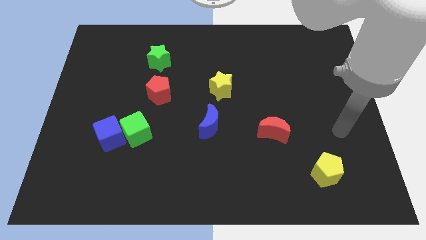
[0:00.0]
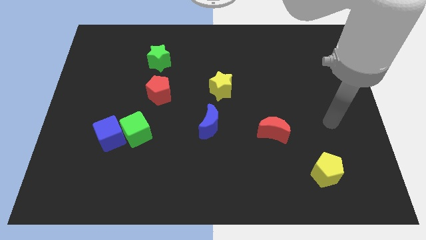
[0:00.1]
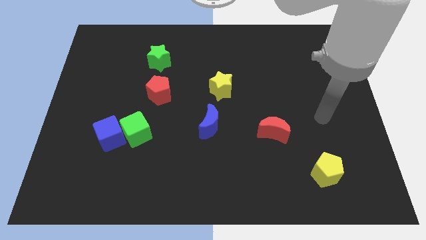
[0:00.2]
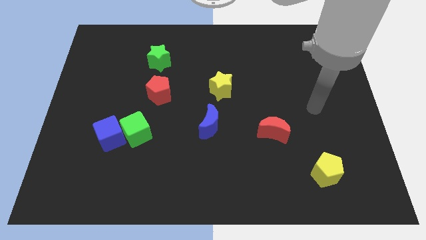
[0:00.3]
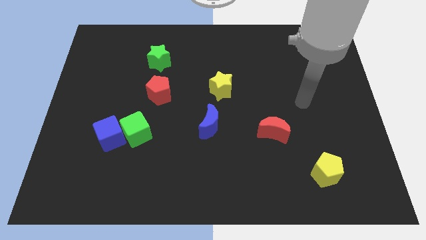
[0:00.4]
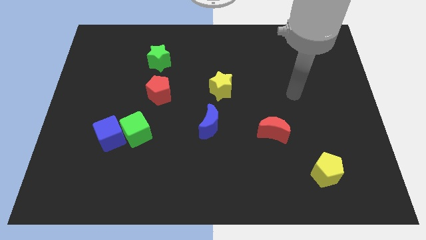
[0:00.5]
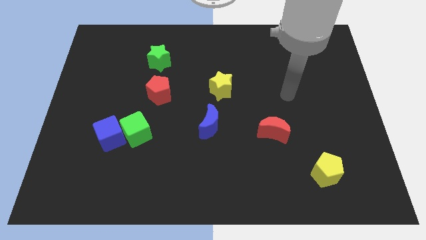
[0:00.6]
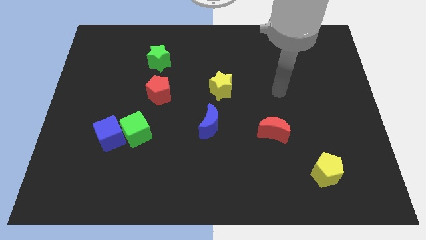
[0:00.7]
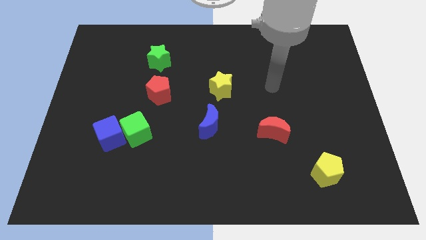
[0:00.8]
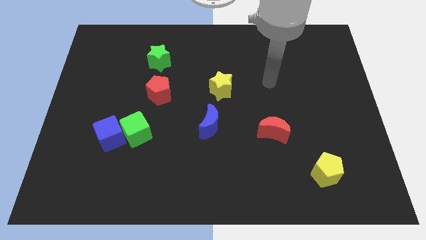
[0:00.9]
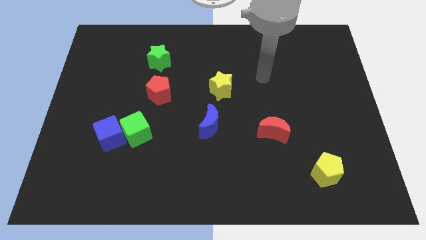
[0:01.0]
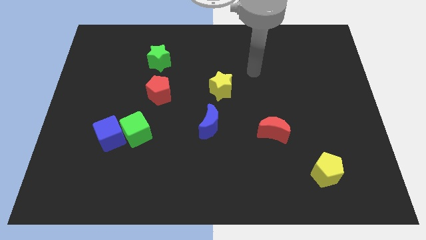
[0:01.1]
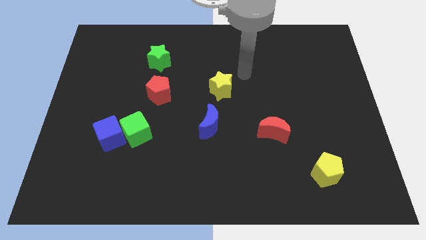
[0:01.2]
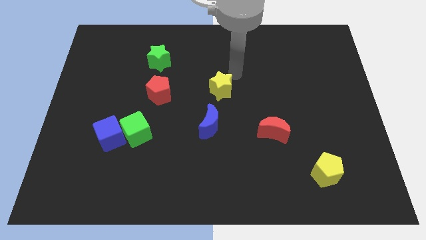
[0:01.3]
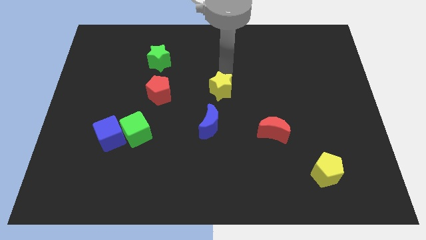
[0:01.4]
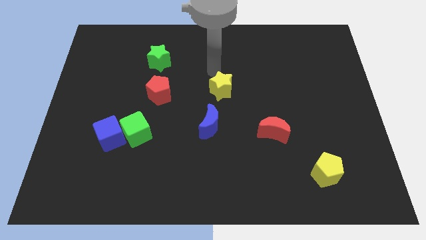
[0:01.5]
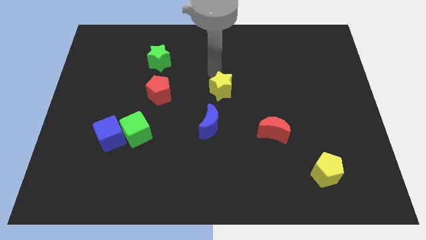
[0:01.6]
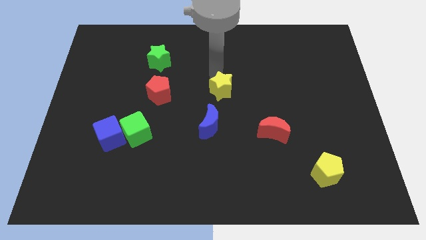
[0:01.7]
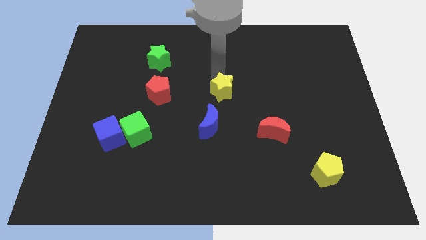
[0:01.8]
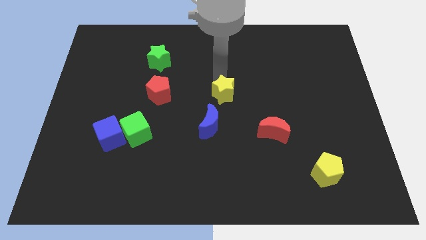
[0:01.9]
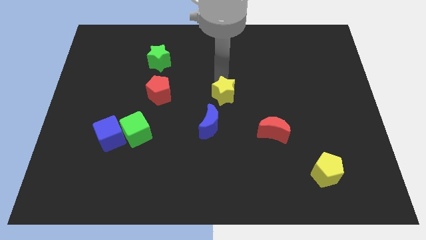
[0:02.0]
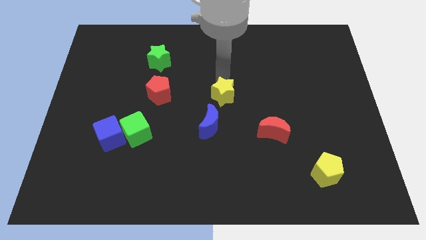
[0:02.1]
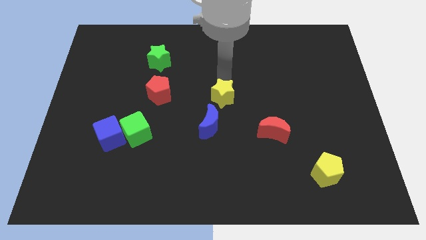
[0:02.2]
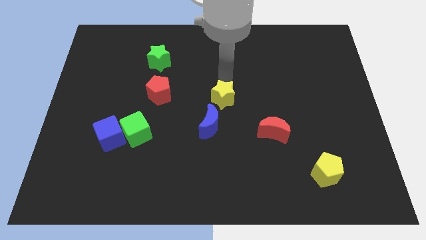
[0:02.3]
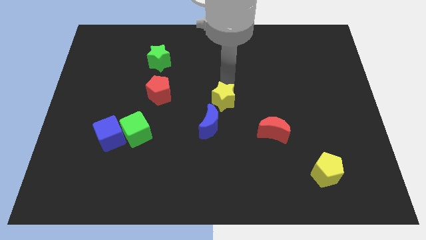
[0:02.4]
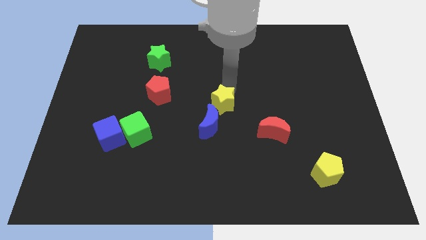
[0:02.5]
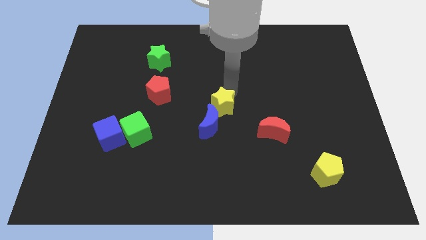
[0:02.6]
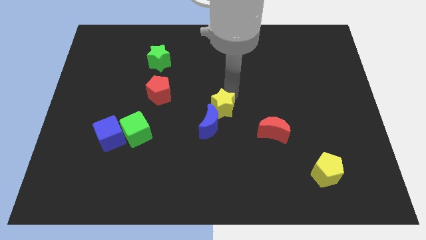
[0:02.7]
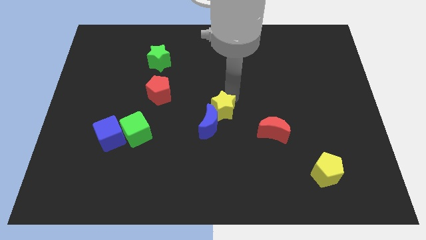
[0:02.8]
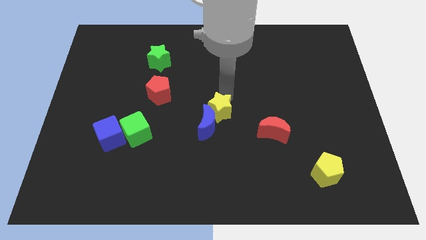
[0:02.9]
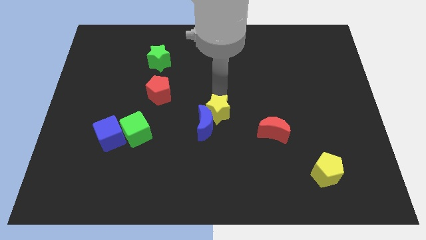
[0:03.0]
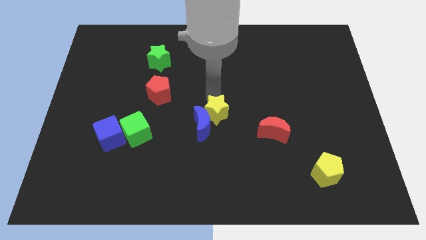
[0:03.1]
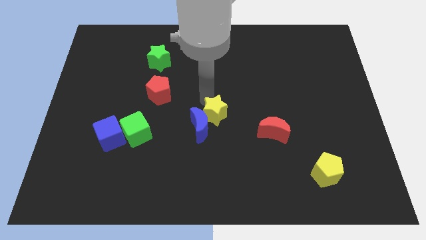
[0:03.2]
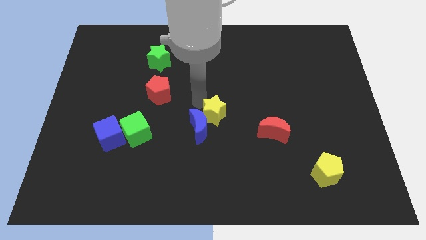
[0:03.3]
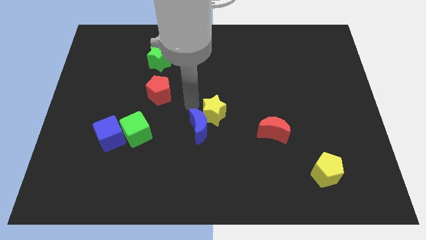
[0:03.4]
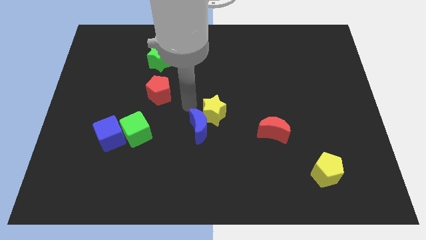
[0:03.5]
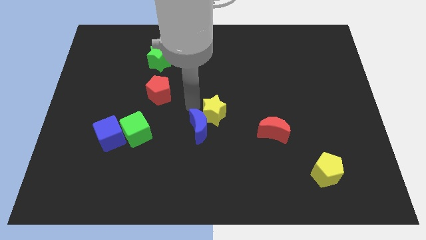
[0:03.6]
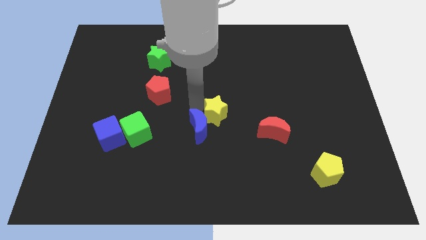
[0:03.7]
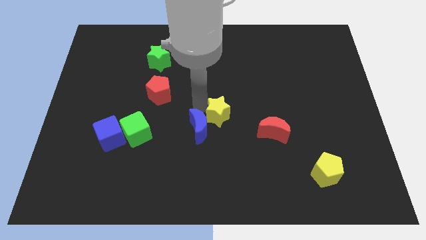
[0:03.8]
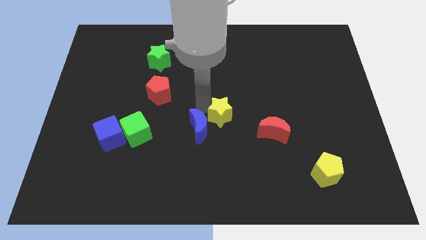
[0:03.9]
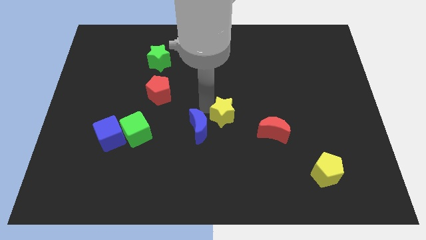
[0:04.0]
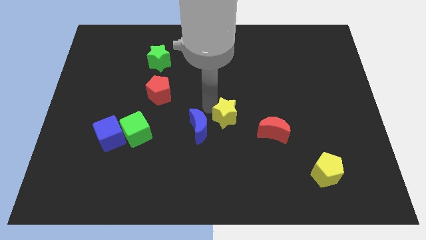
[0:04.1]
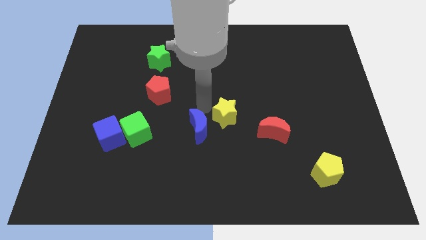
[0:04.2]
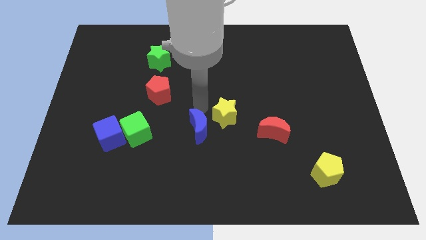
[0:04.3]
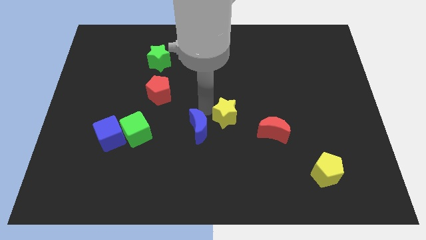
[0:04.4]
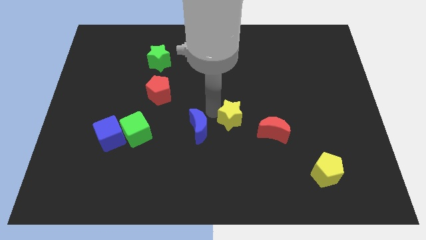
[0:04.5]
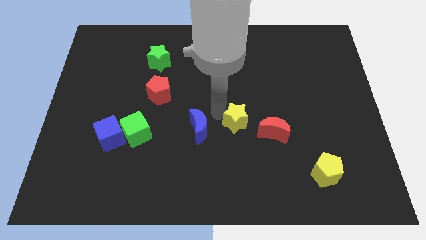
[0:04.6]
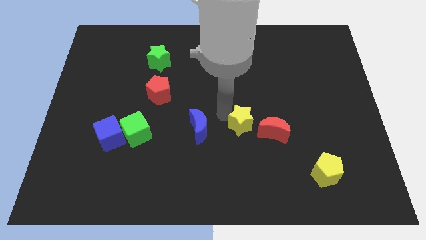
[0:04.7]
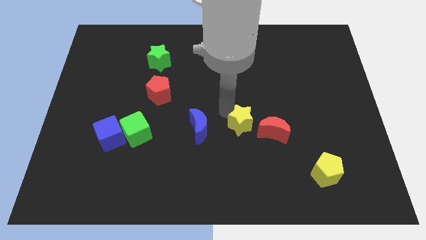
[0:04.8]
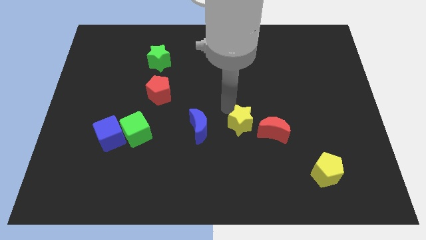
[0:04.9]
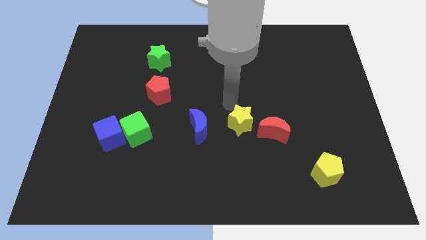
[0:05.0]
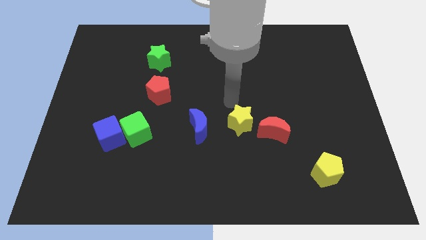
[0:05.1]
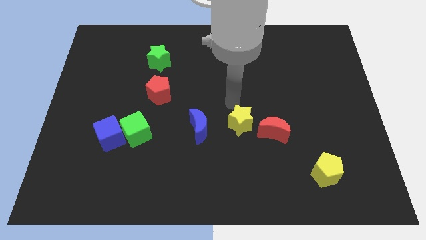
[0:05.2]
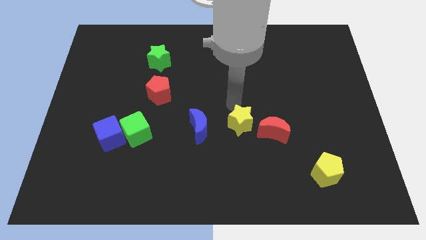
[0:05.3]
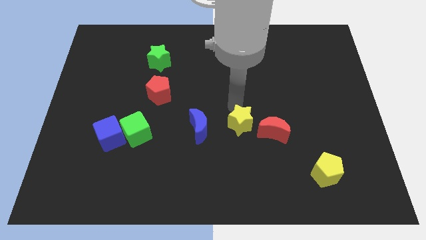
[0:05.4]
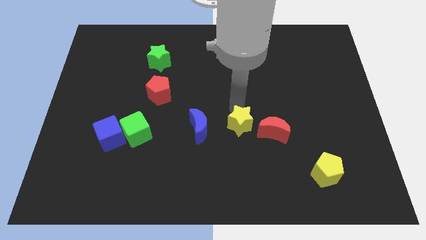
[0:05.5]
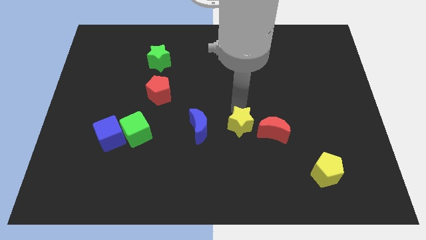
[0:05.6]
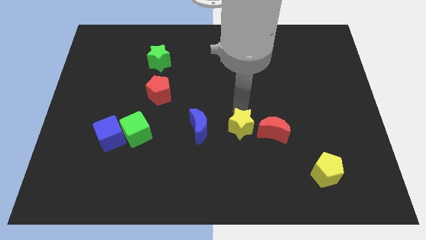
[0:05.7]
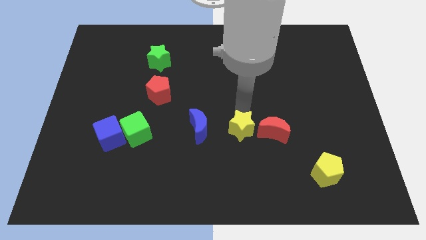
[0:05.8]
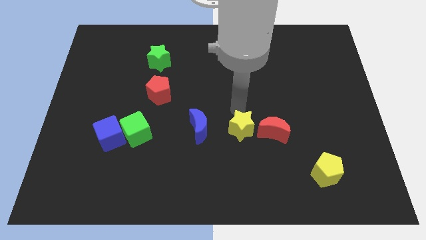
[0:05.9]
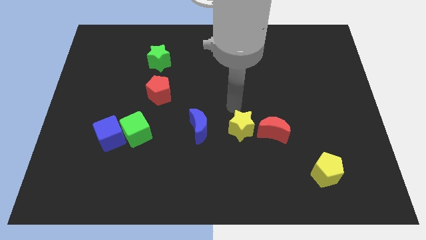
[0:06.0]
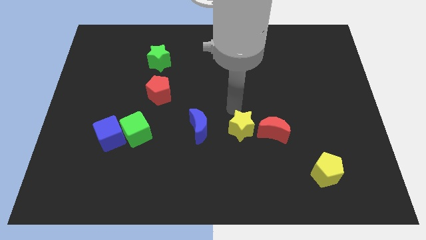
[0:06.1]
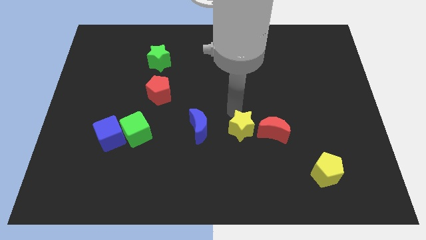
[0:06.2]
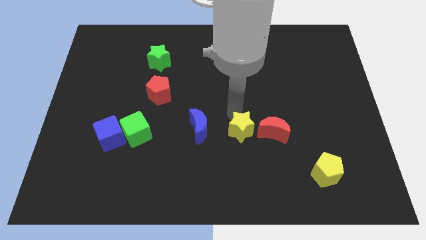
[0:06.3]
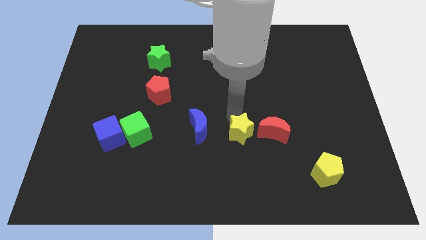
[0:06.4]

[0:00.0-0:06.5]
put the yellow star to the bottom left of the red moon

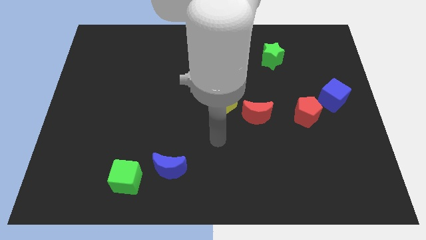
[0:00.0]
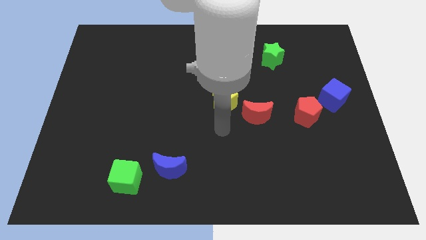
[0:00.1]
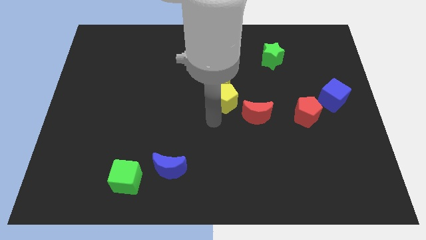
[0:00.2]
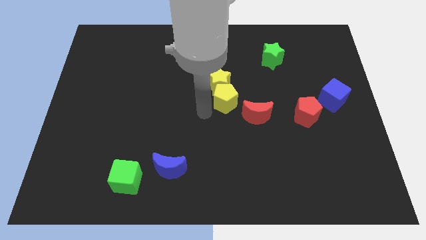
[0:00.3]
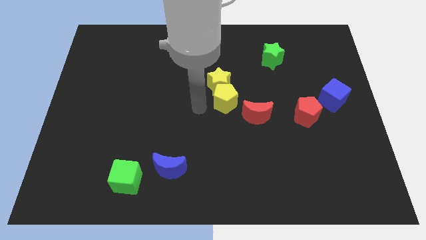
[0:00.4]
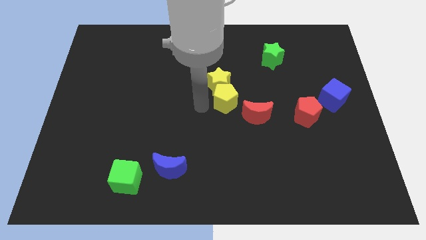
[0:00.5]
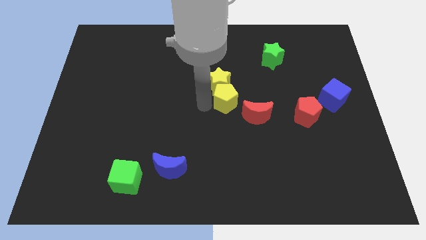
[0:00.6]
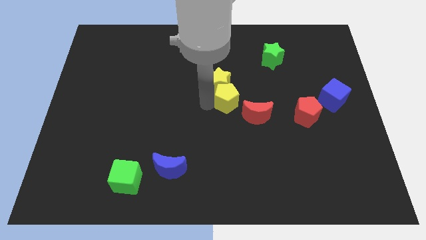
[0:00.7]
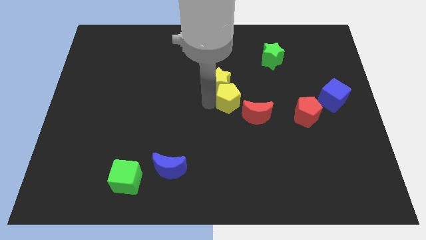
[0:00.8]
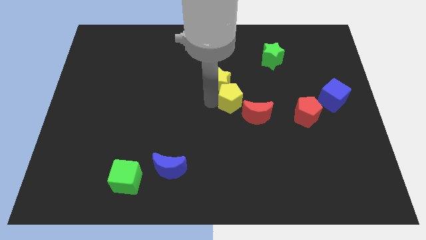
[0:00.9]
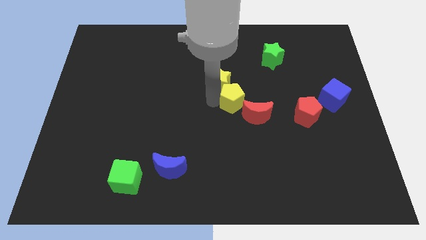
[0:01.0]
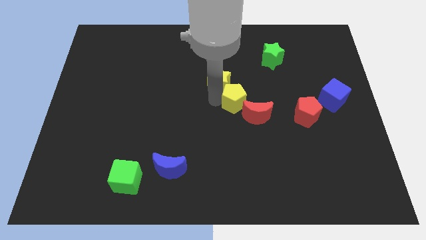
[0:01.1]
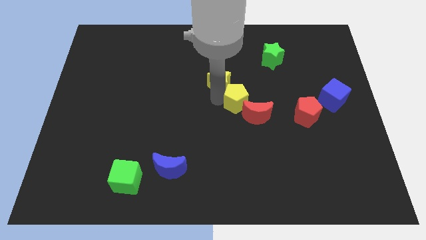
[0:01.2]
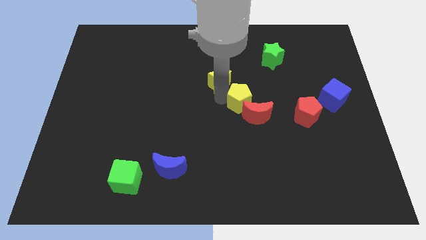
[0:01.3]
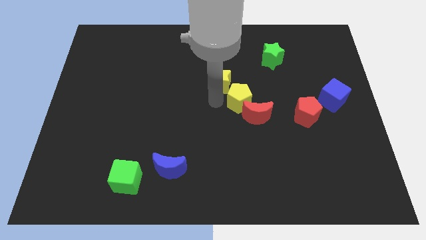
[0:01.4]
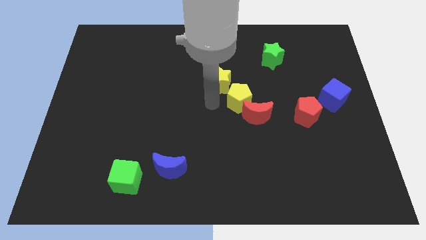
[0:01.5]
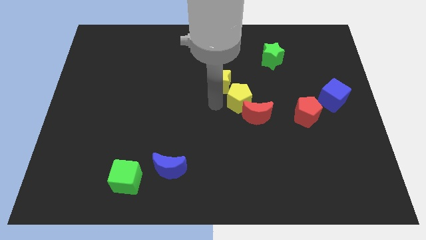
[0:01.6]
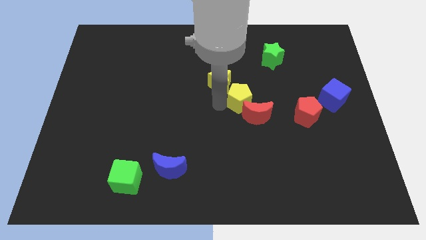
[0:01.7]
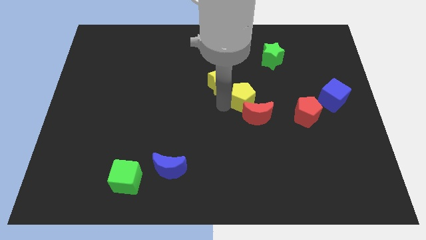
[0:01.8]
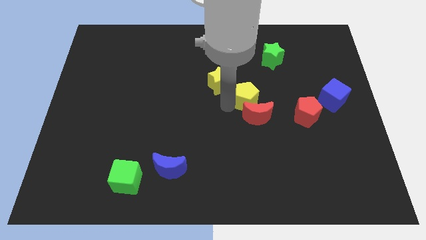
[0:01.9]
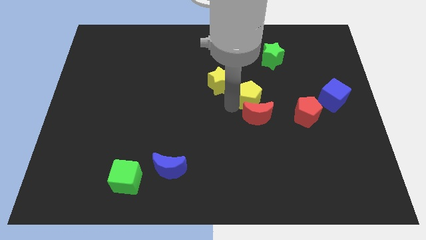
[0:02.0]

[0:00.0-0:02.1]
push the yellow pentagon diagonally up and to the right of the red moon
